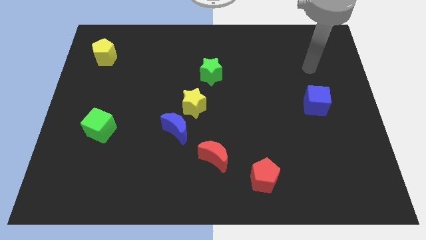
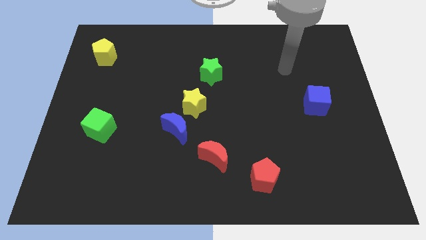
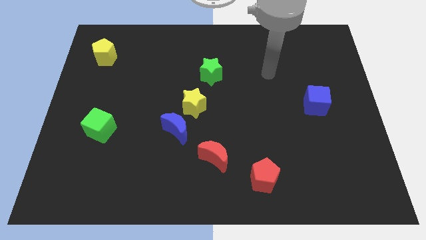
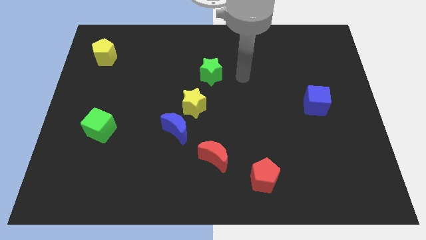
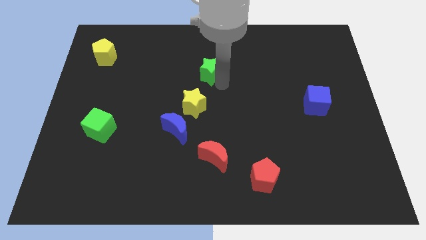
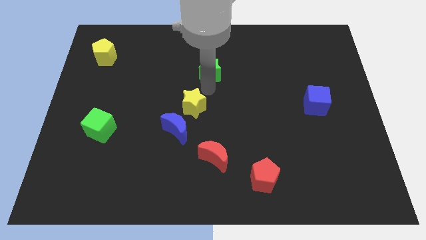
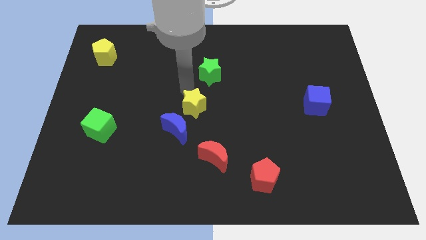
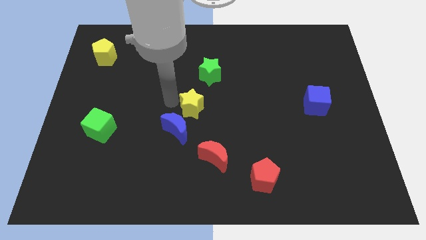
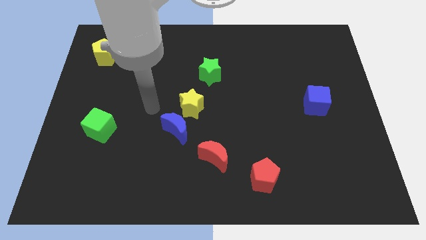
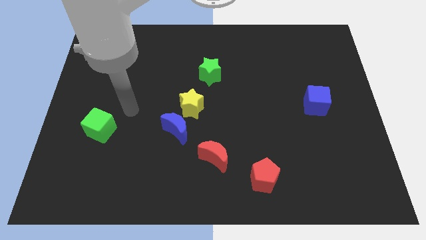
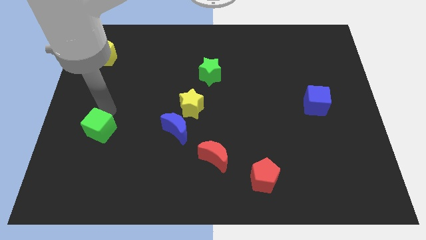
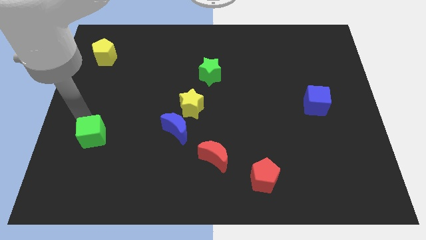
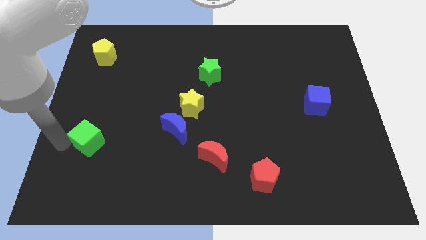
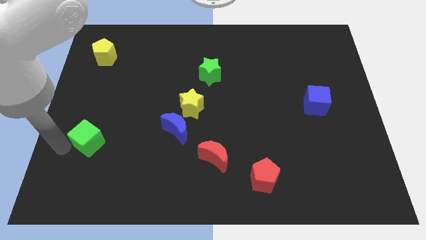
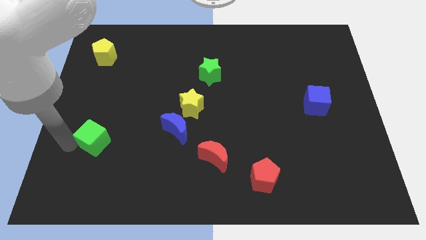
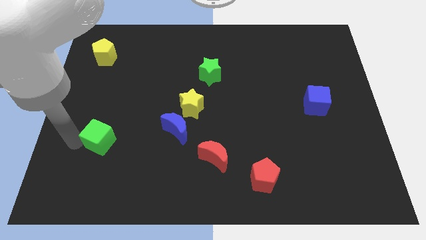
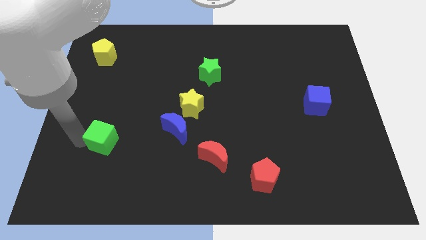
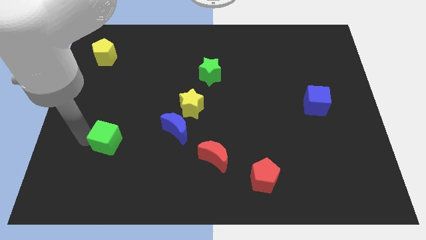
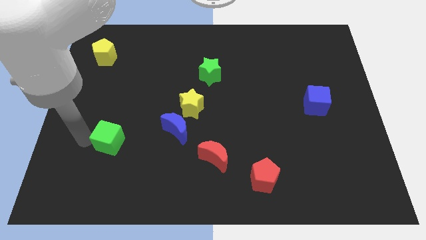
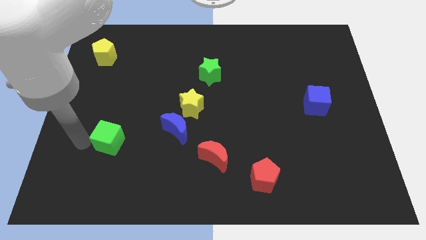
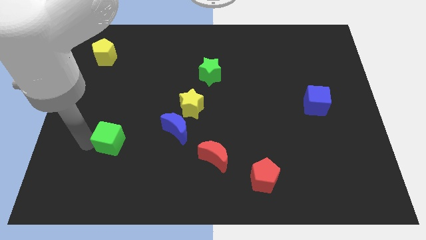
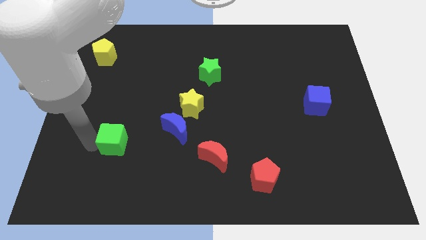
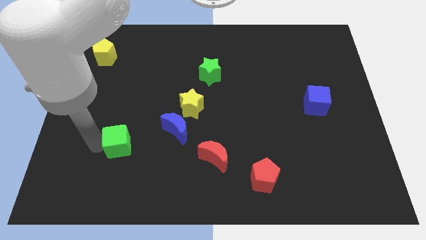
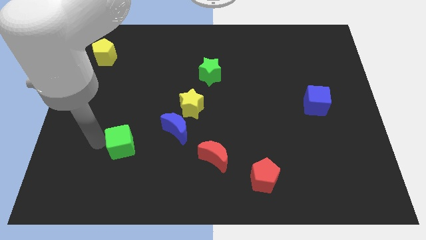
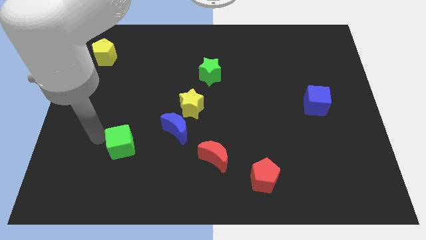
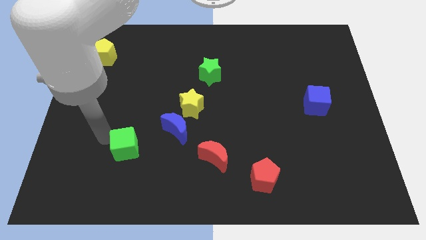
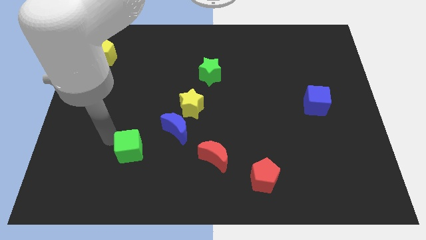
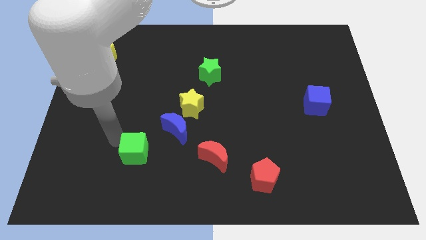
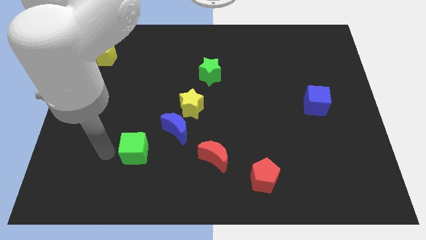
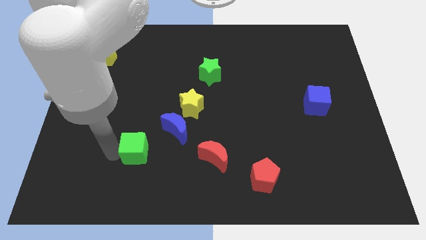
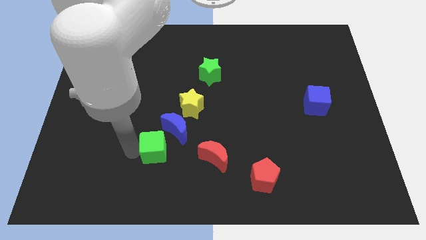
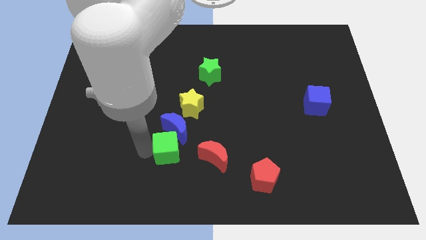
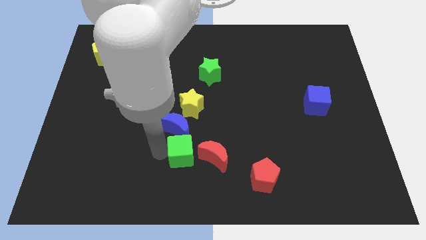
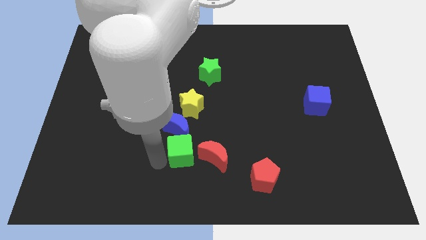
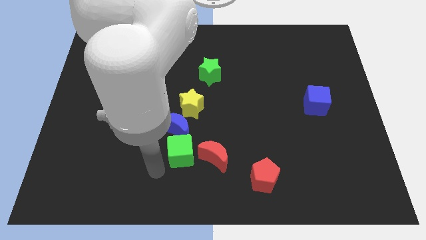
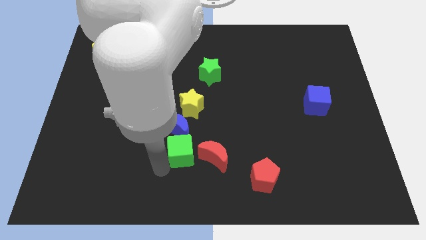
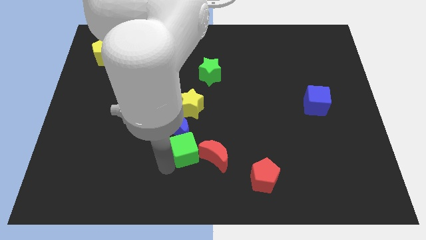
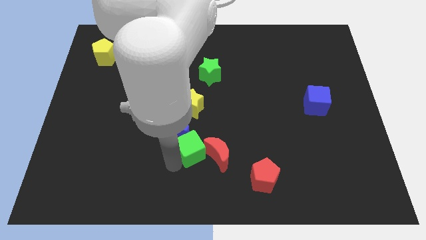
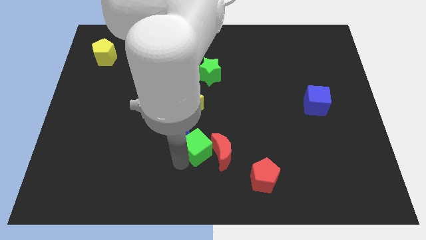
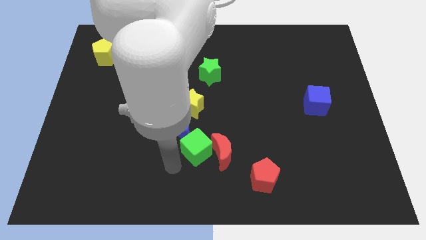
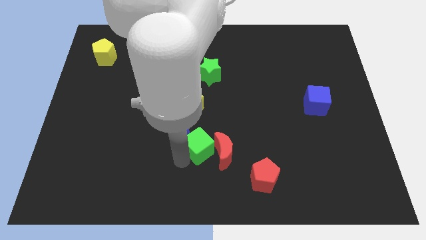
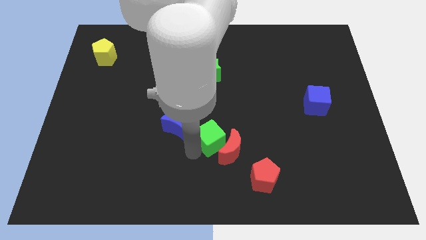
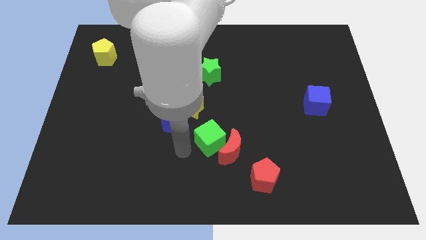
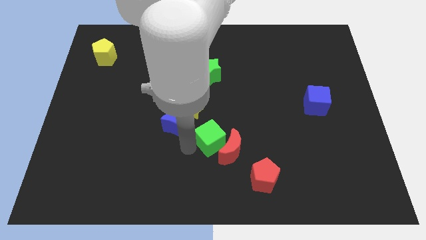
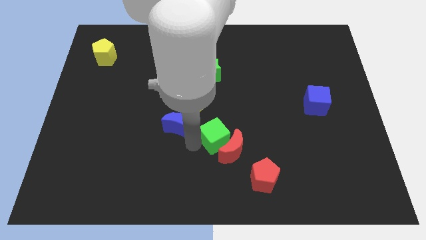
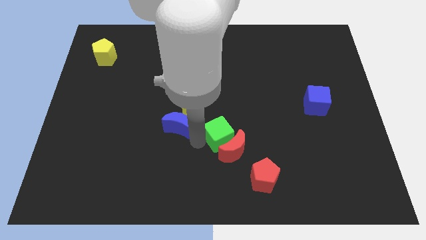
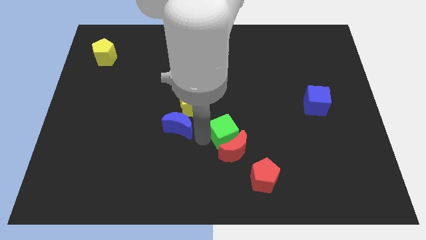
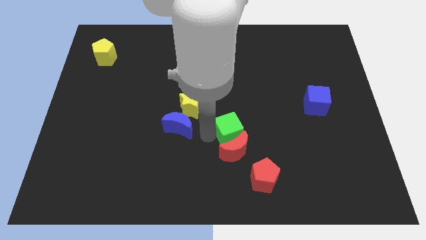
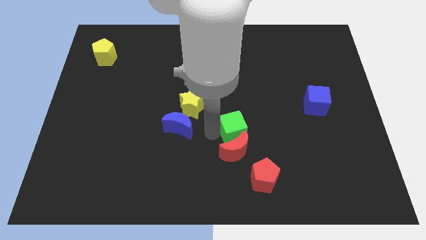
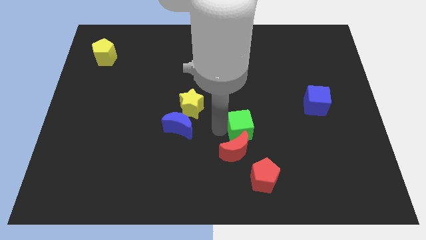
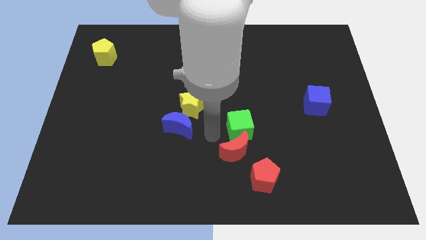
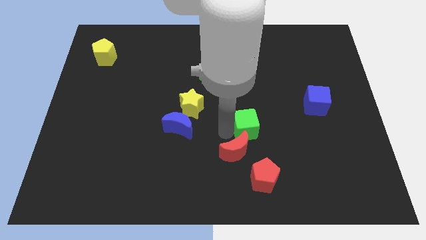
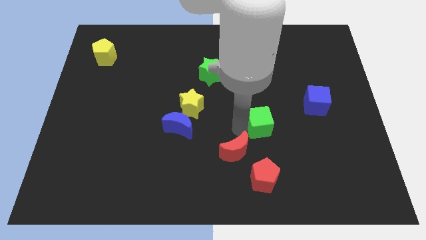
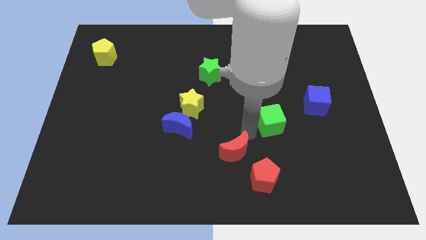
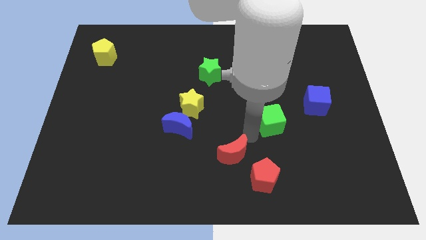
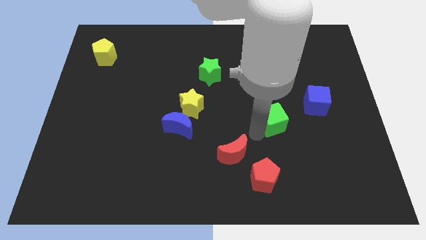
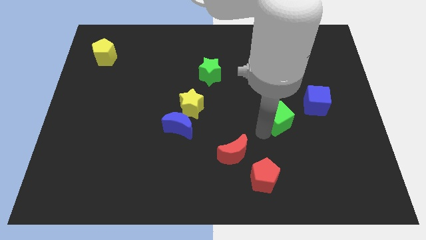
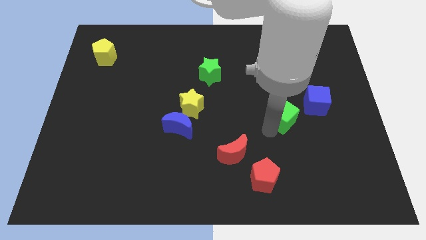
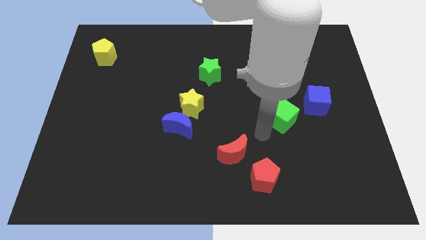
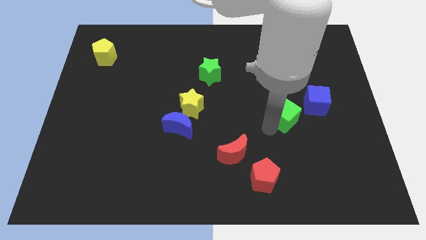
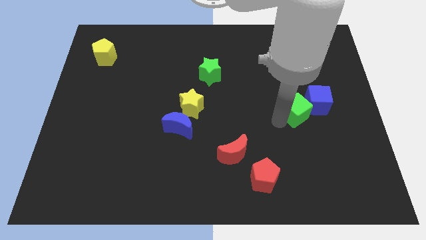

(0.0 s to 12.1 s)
push the green cube next to the blue cube
